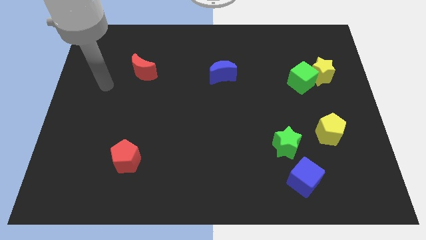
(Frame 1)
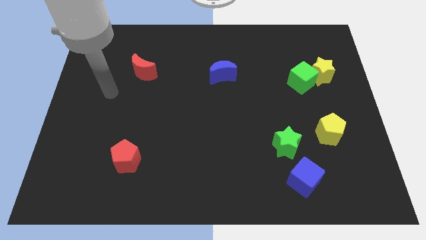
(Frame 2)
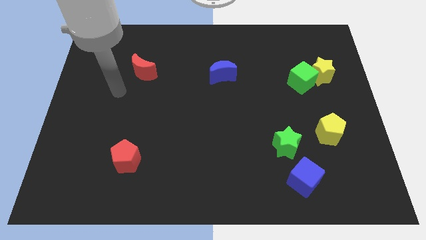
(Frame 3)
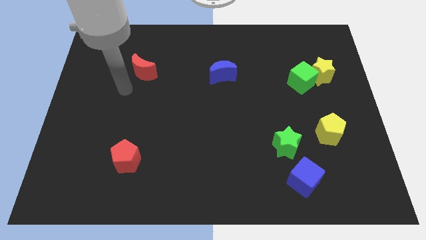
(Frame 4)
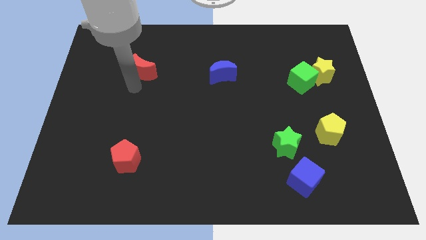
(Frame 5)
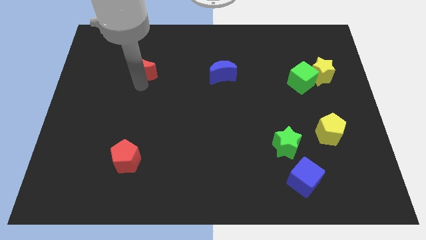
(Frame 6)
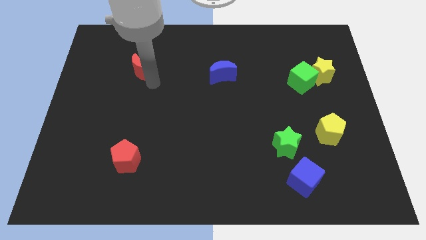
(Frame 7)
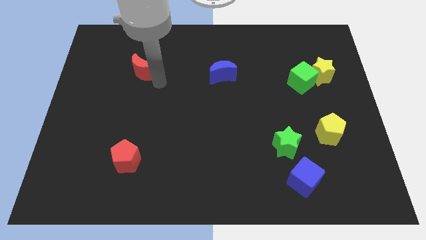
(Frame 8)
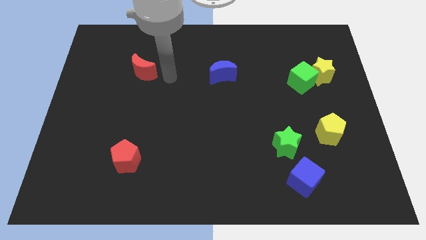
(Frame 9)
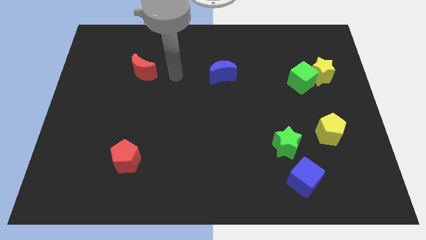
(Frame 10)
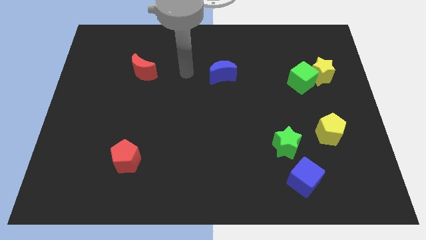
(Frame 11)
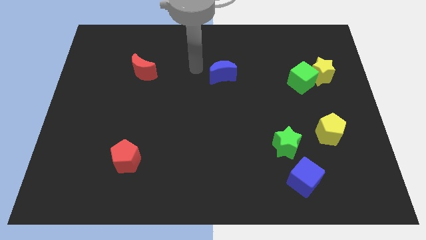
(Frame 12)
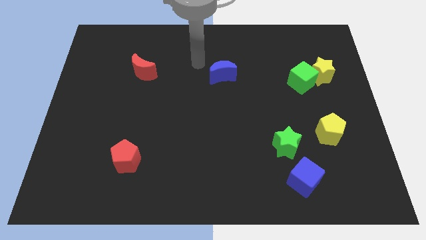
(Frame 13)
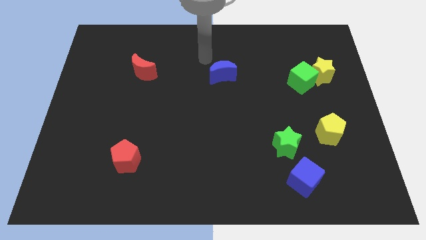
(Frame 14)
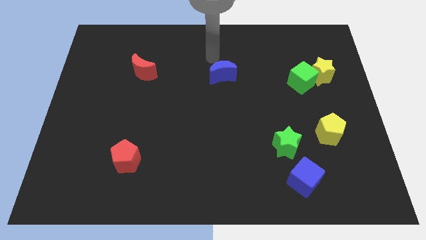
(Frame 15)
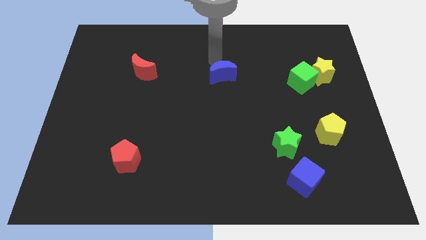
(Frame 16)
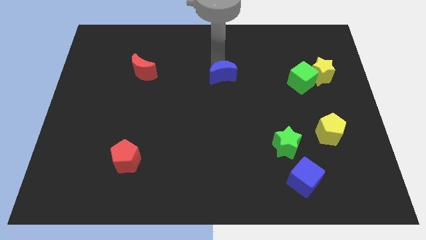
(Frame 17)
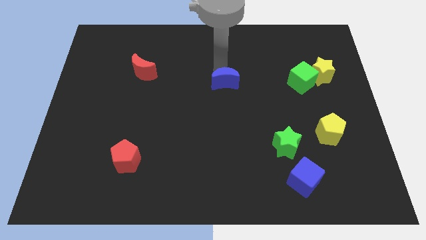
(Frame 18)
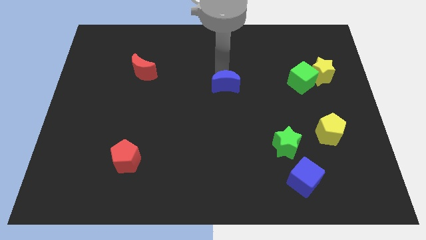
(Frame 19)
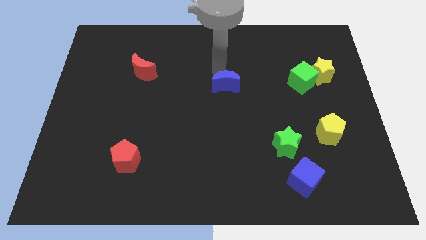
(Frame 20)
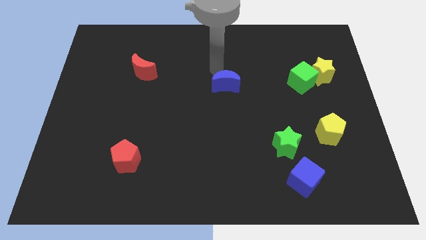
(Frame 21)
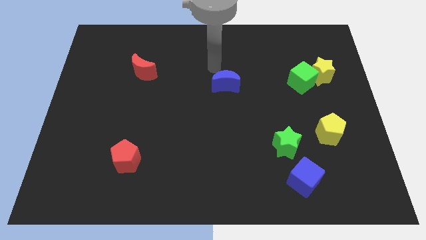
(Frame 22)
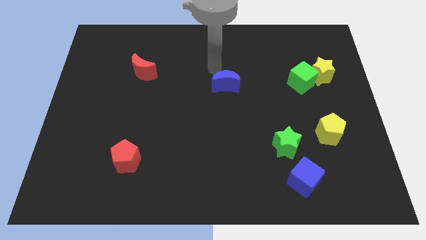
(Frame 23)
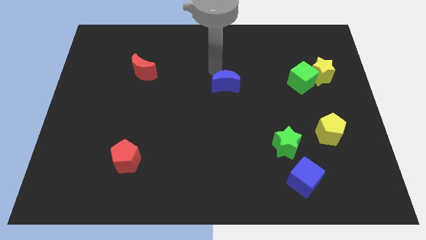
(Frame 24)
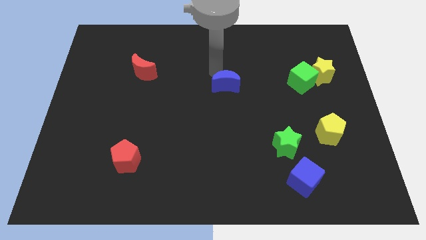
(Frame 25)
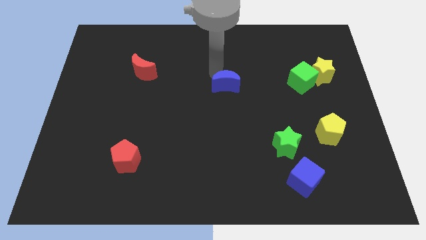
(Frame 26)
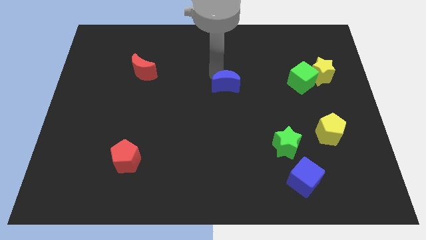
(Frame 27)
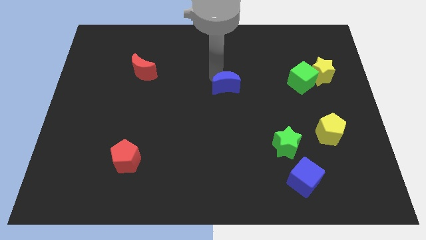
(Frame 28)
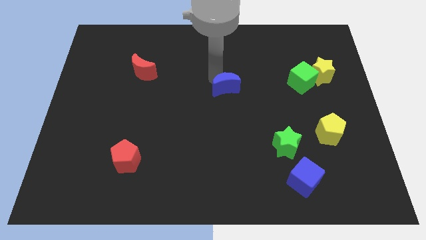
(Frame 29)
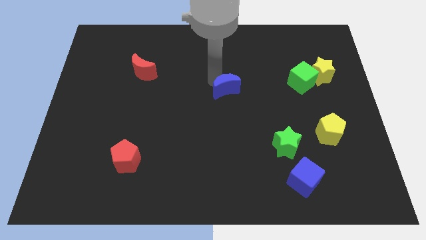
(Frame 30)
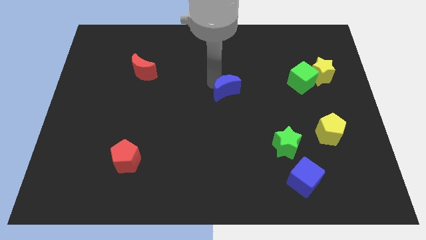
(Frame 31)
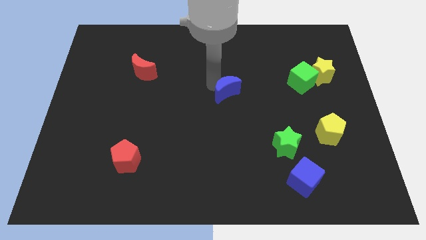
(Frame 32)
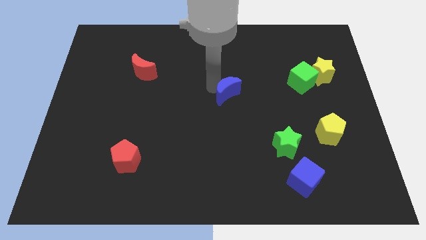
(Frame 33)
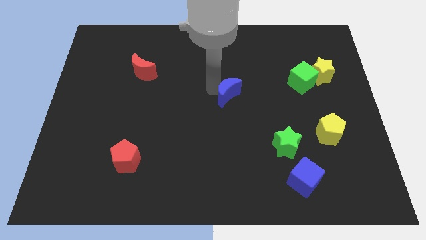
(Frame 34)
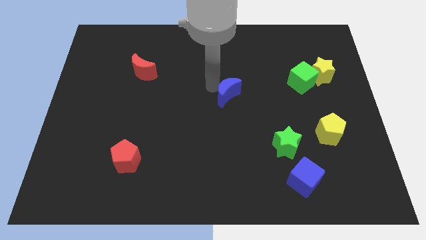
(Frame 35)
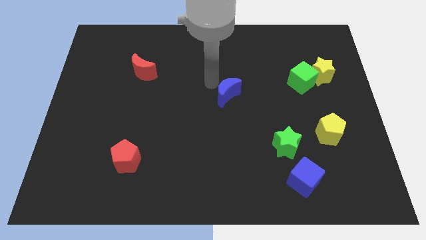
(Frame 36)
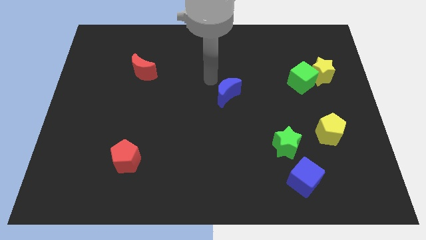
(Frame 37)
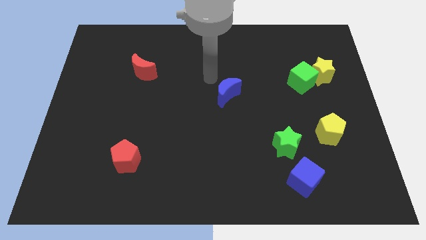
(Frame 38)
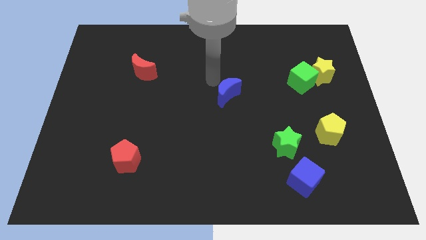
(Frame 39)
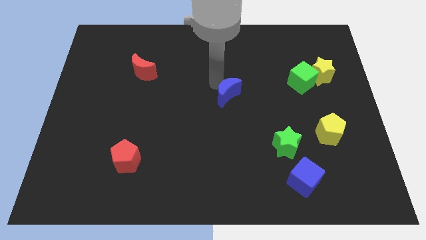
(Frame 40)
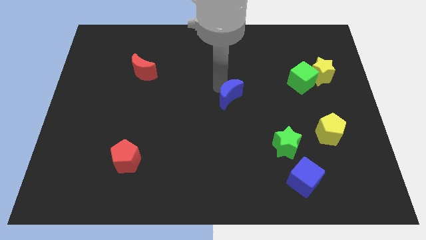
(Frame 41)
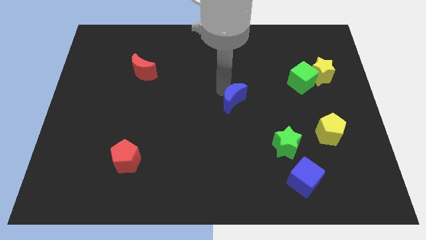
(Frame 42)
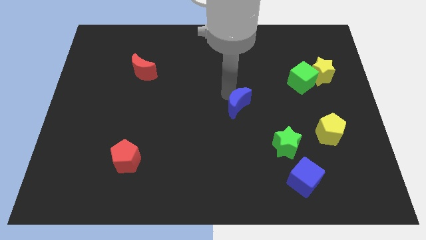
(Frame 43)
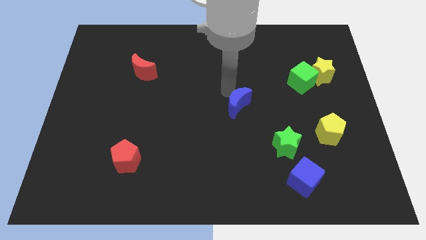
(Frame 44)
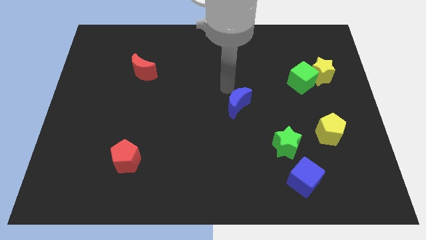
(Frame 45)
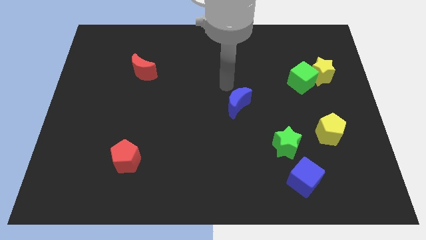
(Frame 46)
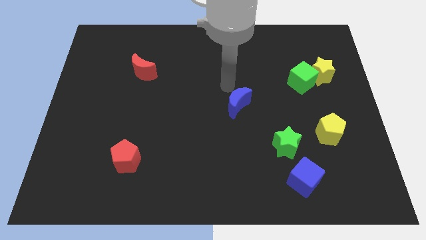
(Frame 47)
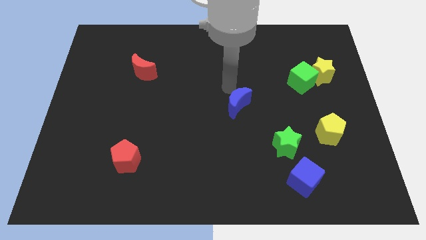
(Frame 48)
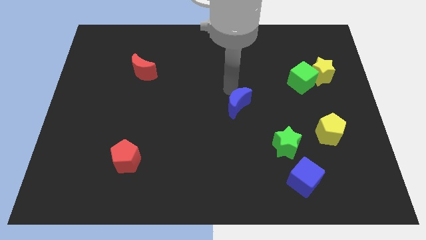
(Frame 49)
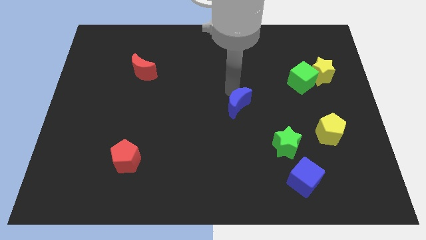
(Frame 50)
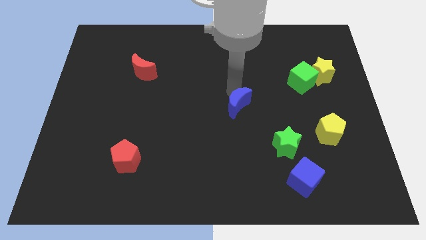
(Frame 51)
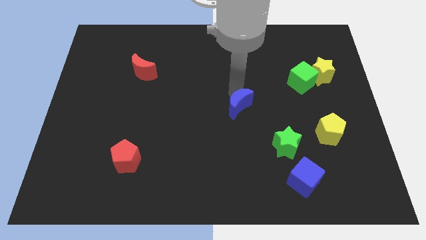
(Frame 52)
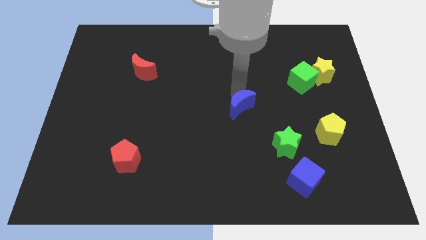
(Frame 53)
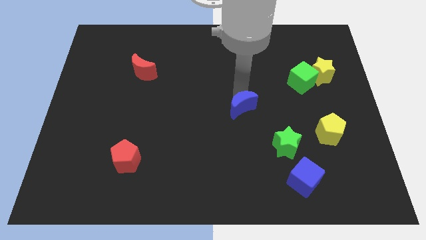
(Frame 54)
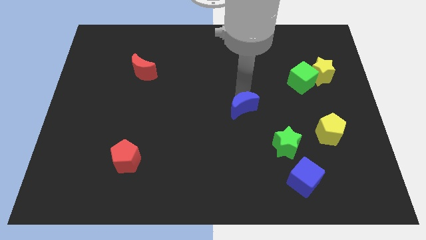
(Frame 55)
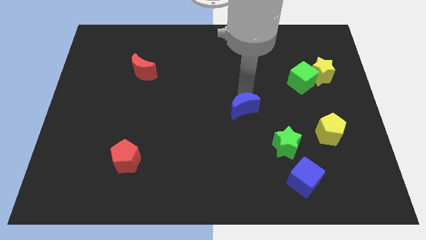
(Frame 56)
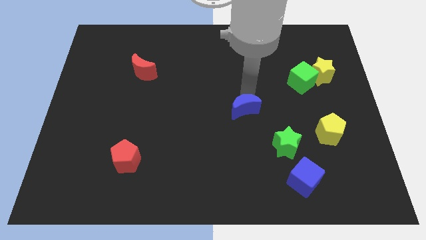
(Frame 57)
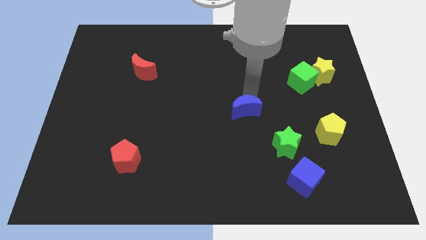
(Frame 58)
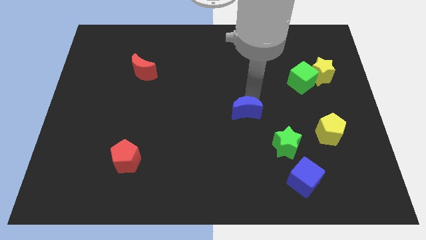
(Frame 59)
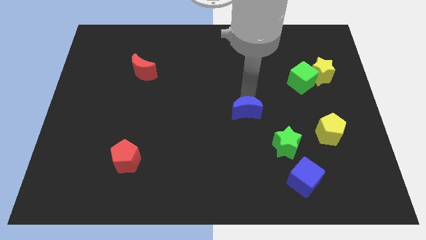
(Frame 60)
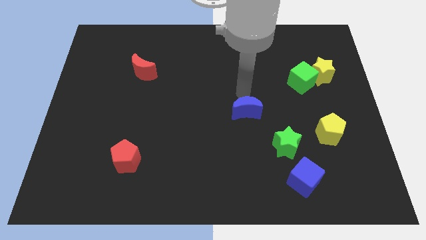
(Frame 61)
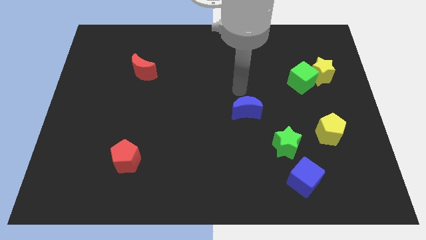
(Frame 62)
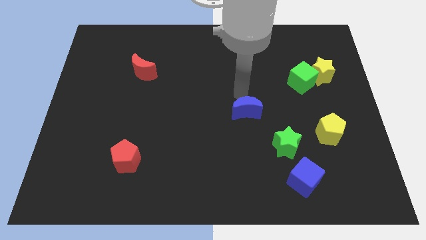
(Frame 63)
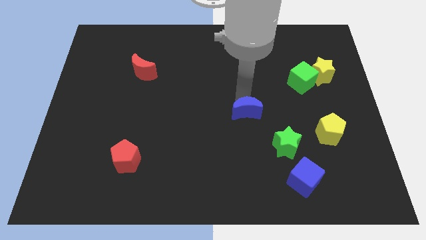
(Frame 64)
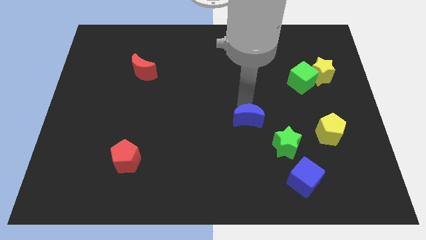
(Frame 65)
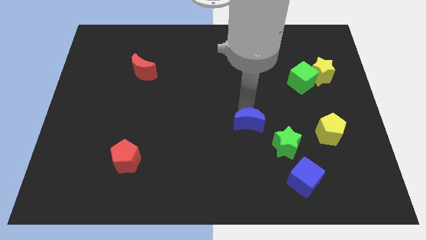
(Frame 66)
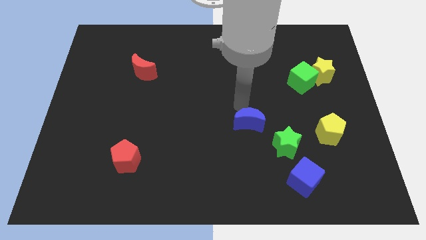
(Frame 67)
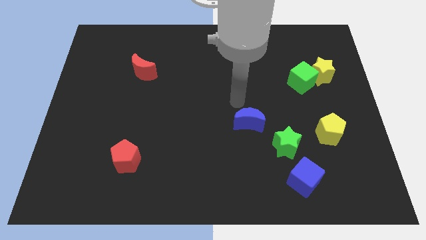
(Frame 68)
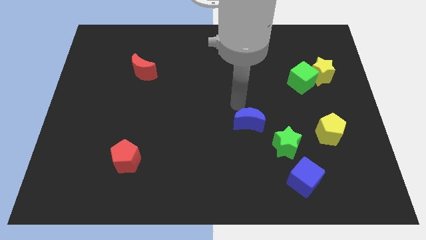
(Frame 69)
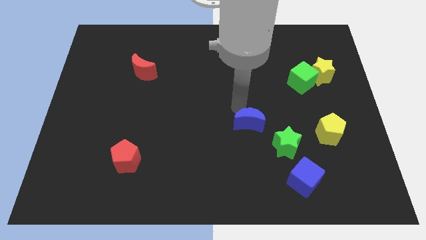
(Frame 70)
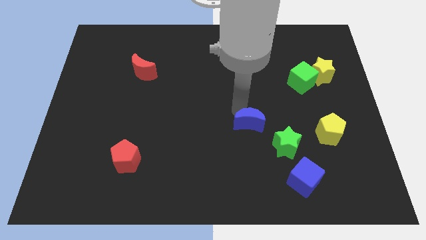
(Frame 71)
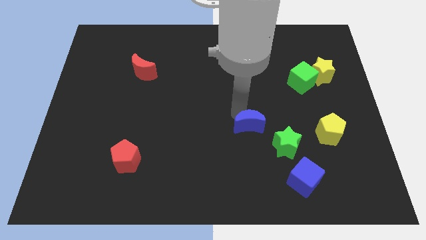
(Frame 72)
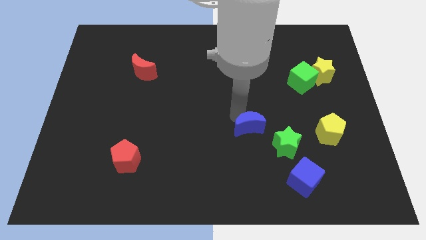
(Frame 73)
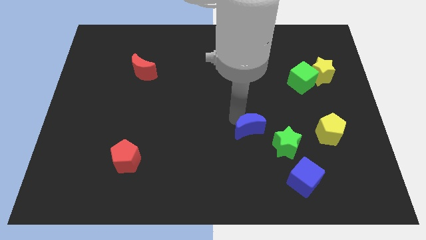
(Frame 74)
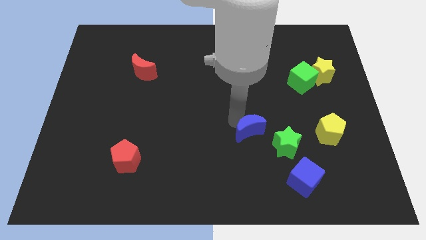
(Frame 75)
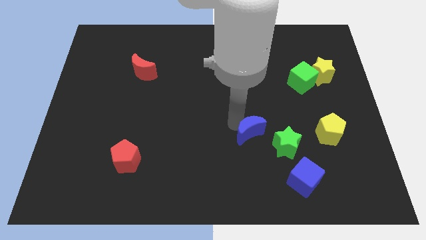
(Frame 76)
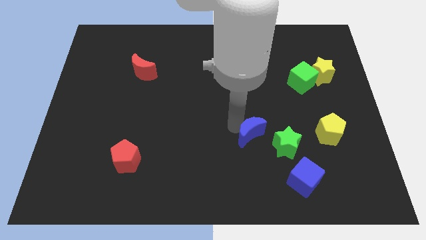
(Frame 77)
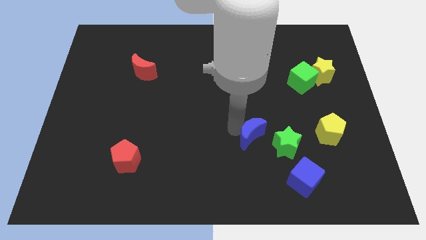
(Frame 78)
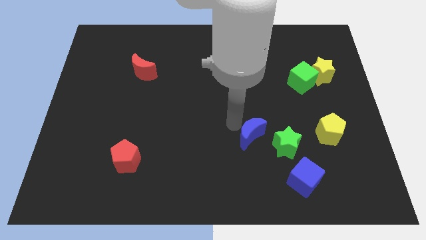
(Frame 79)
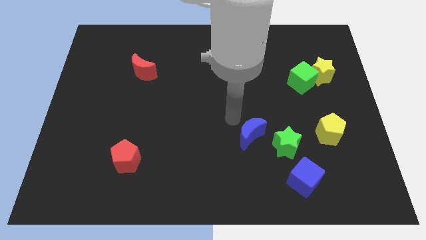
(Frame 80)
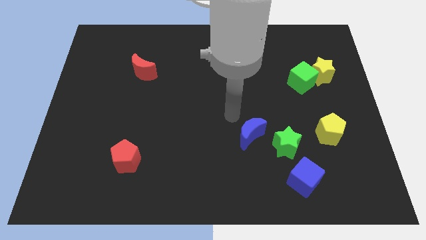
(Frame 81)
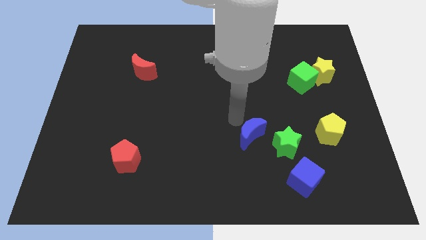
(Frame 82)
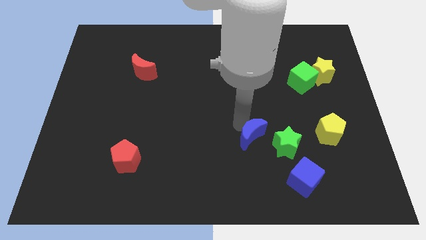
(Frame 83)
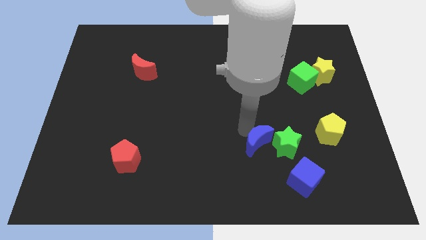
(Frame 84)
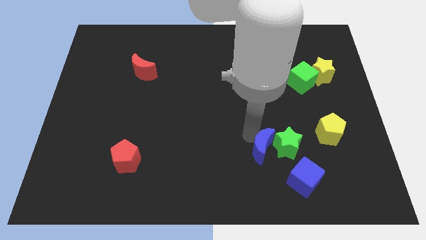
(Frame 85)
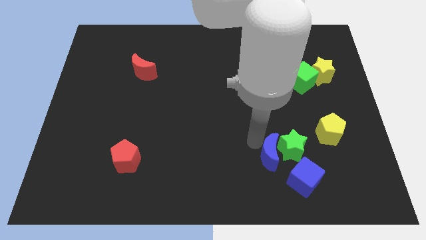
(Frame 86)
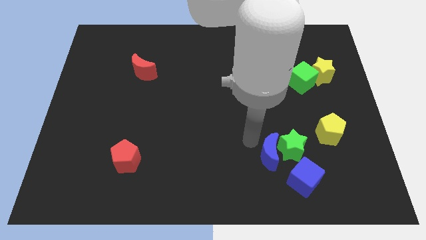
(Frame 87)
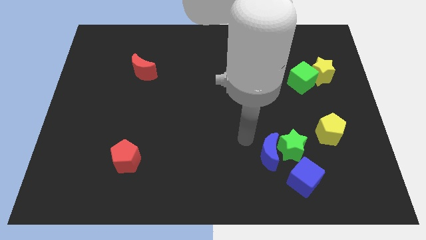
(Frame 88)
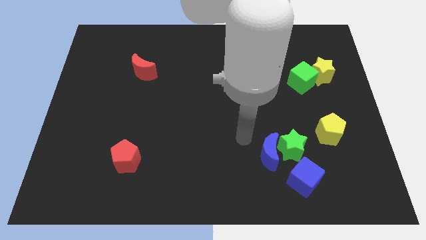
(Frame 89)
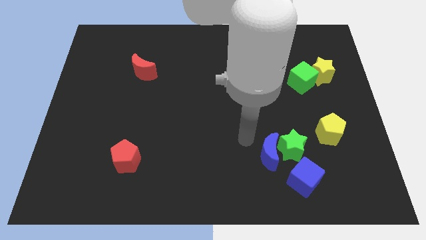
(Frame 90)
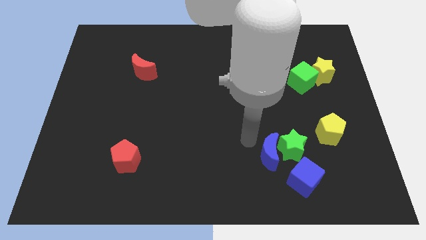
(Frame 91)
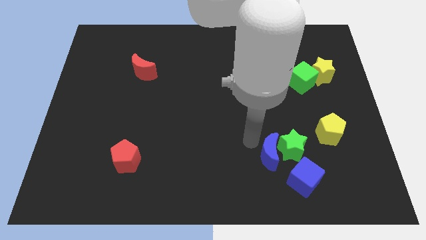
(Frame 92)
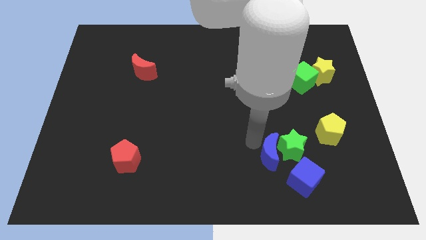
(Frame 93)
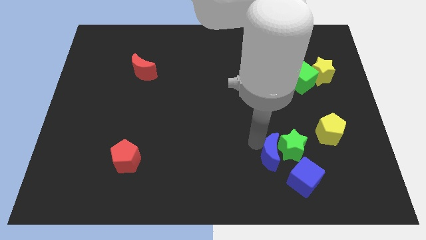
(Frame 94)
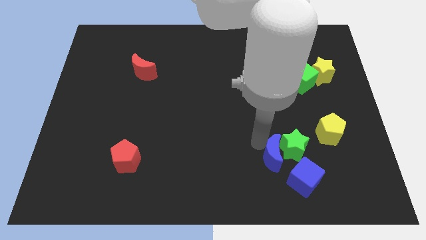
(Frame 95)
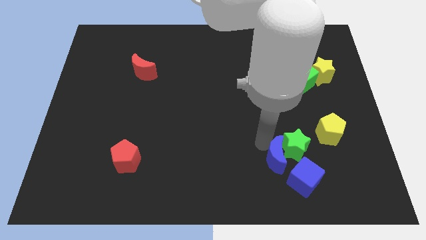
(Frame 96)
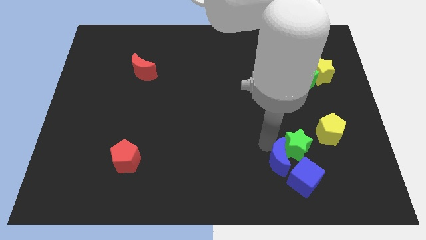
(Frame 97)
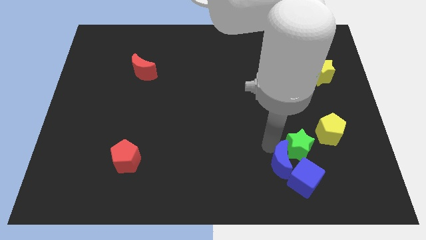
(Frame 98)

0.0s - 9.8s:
slide the blue moon next to the blue cube
